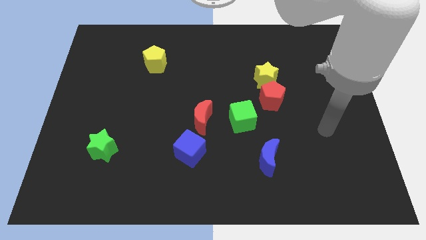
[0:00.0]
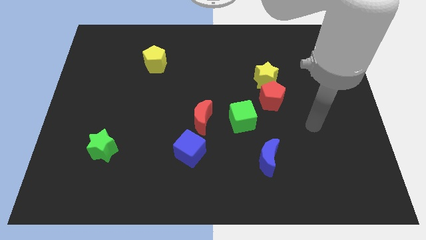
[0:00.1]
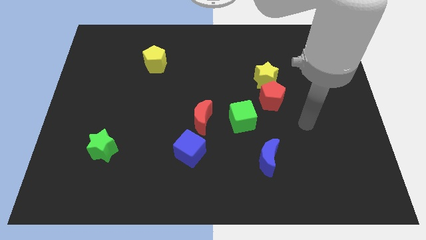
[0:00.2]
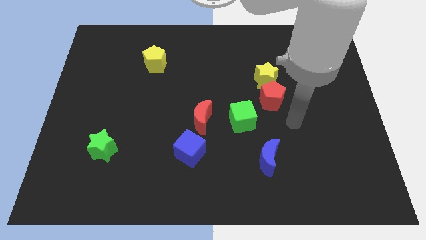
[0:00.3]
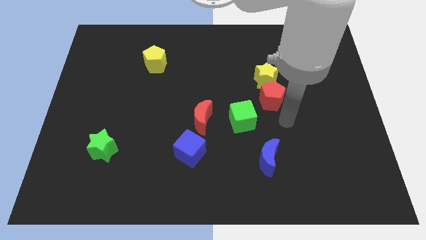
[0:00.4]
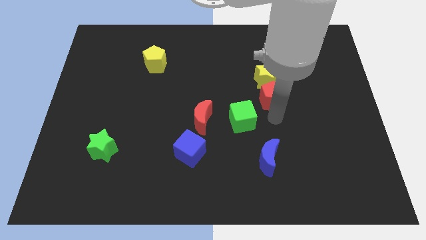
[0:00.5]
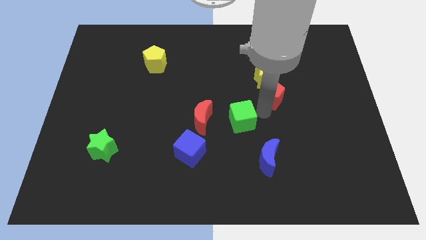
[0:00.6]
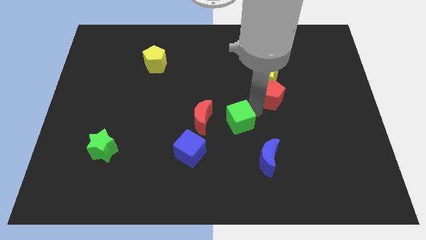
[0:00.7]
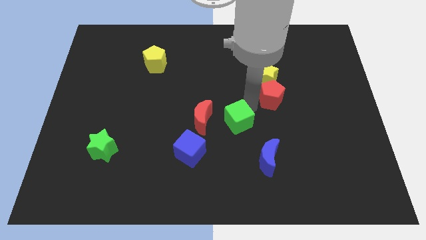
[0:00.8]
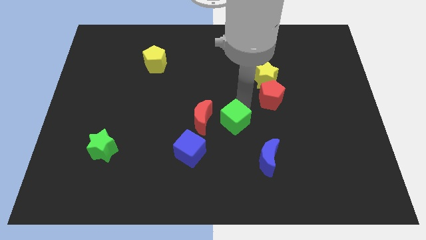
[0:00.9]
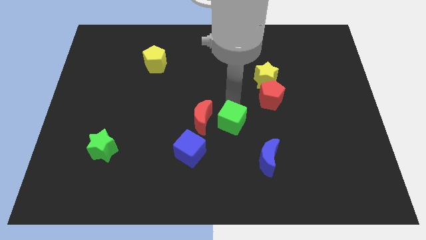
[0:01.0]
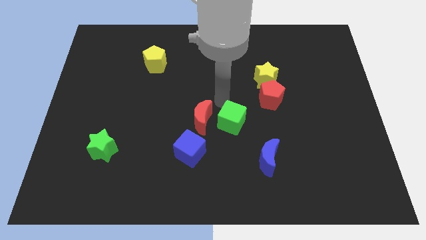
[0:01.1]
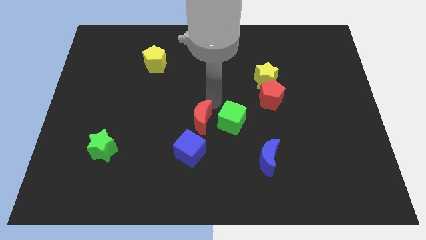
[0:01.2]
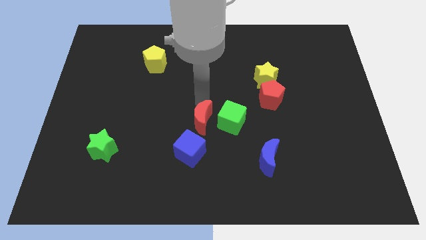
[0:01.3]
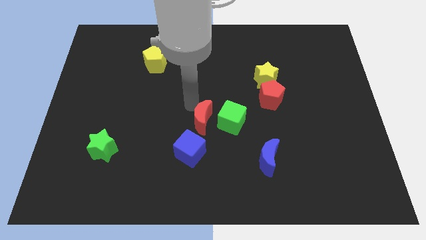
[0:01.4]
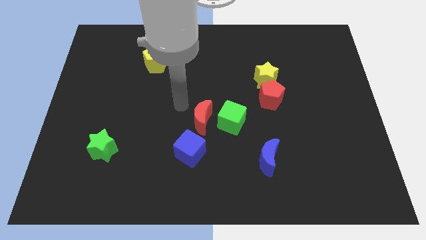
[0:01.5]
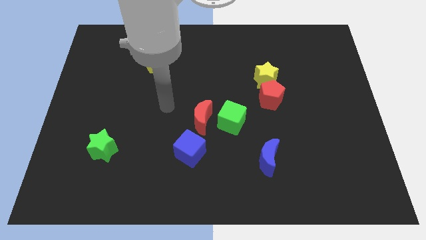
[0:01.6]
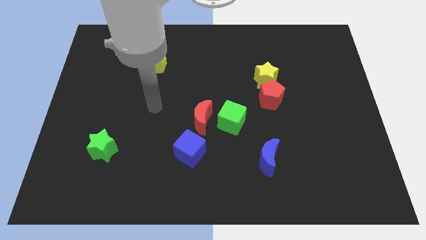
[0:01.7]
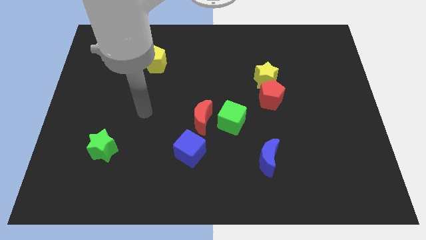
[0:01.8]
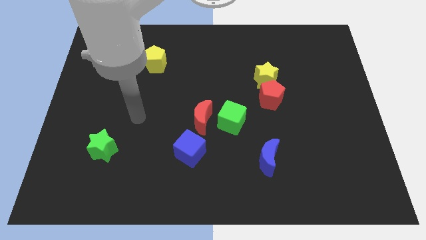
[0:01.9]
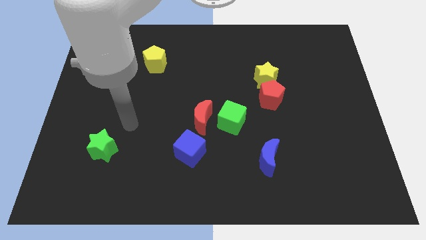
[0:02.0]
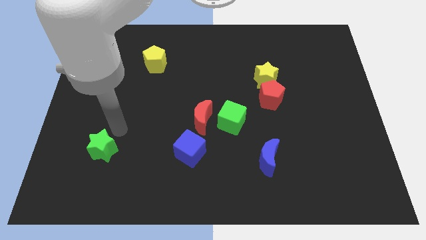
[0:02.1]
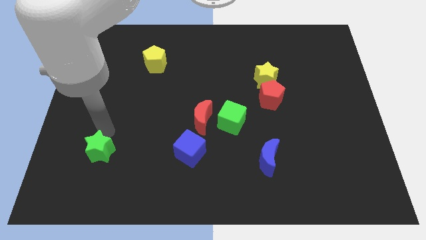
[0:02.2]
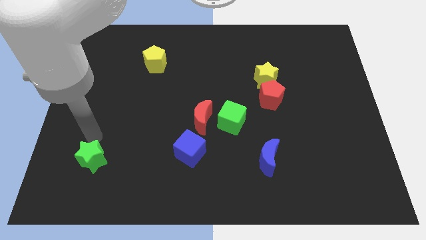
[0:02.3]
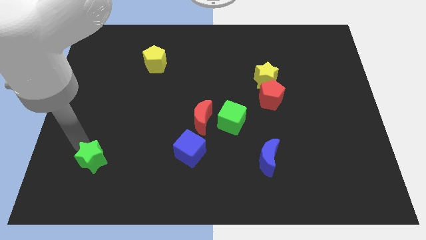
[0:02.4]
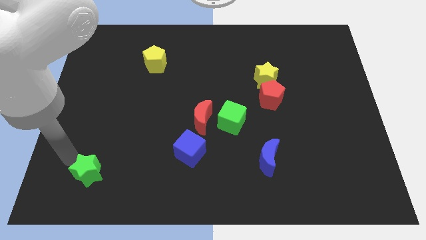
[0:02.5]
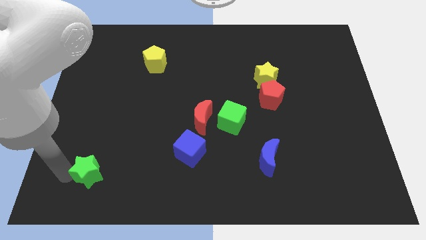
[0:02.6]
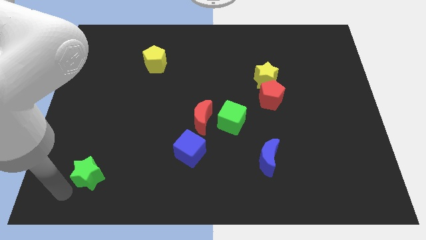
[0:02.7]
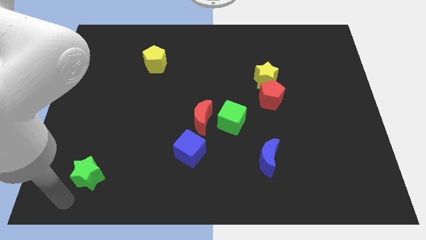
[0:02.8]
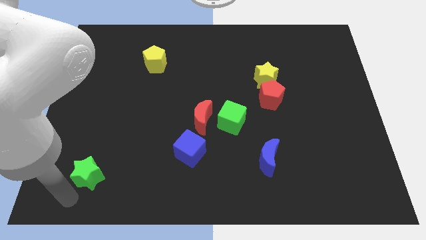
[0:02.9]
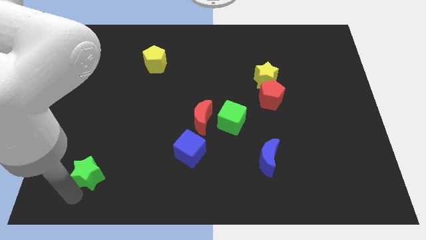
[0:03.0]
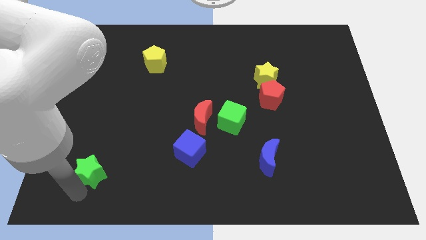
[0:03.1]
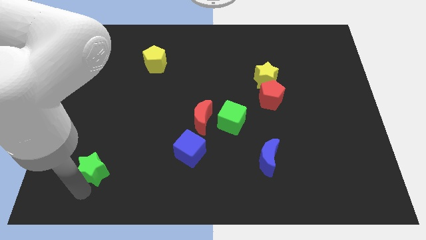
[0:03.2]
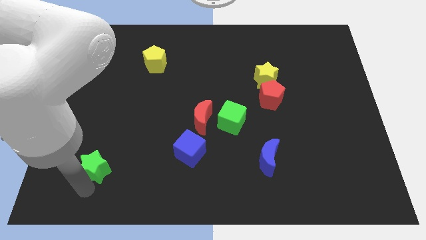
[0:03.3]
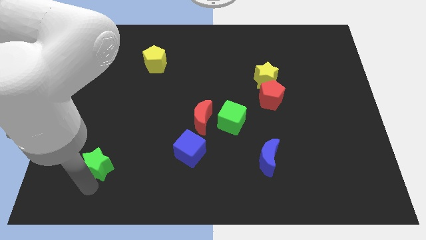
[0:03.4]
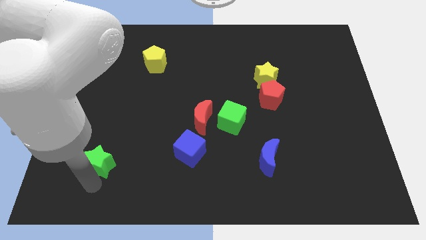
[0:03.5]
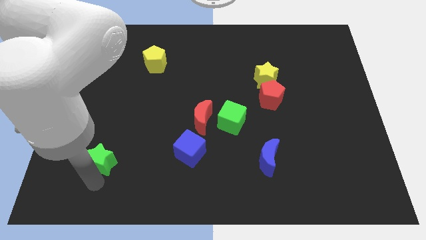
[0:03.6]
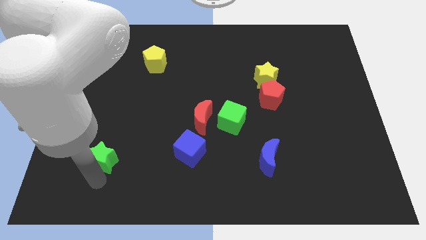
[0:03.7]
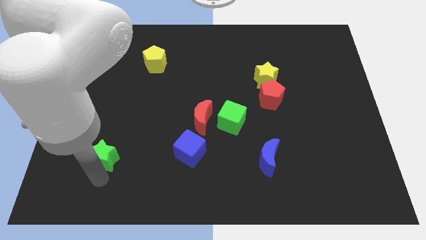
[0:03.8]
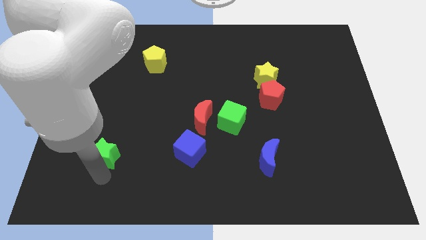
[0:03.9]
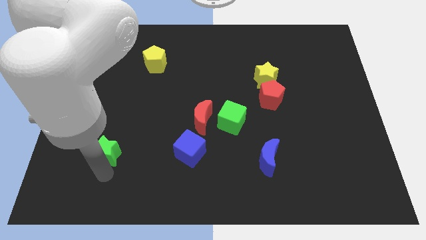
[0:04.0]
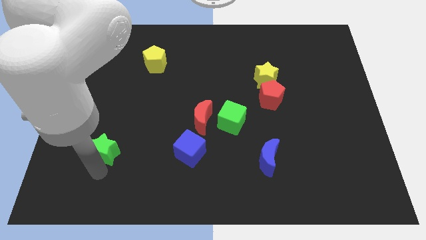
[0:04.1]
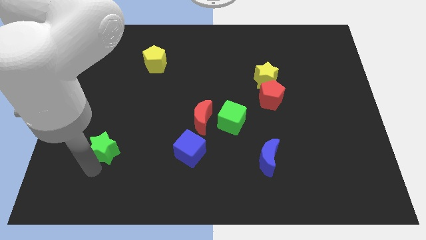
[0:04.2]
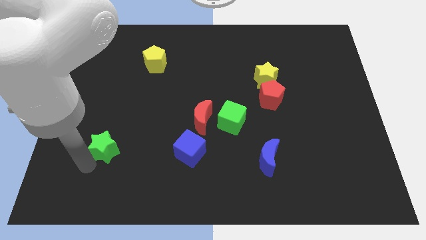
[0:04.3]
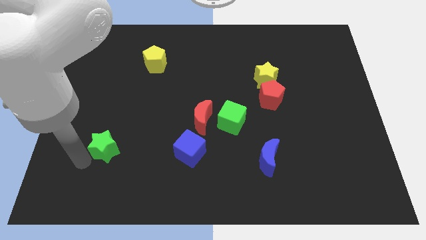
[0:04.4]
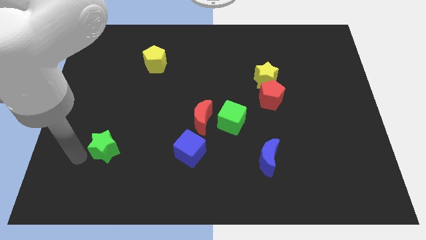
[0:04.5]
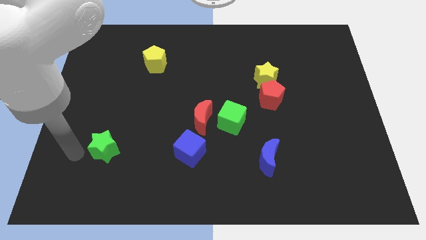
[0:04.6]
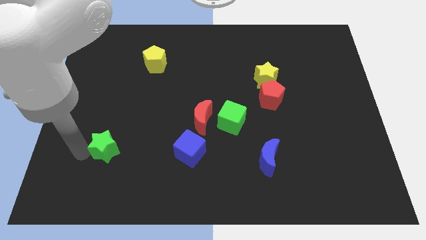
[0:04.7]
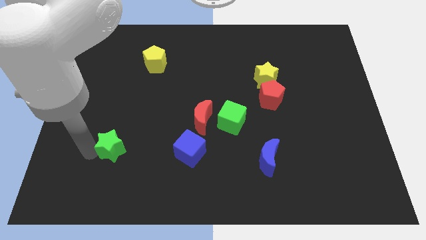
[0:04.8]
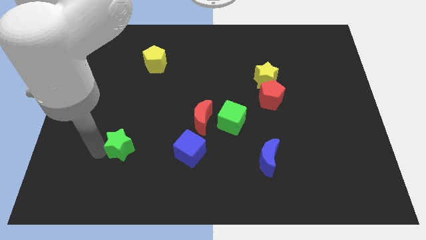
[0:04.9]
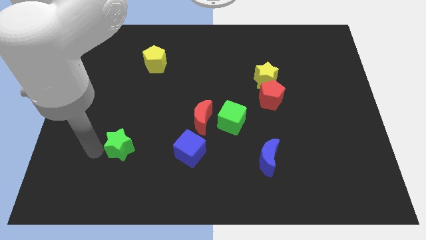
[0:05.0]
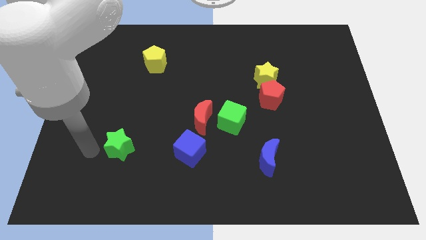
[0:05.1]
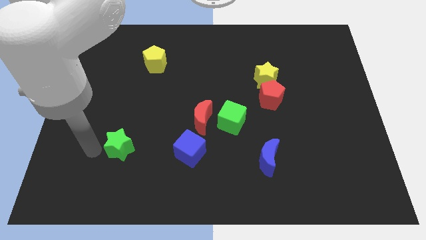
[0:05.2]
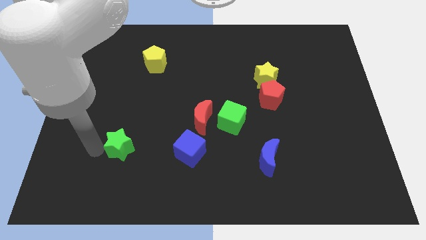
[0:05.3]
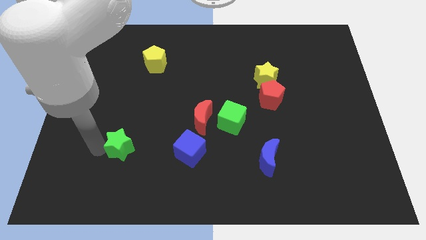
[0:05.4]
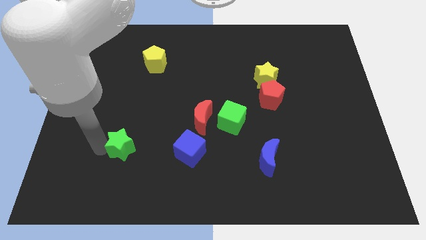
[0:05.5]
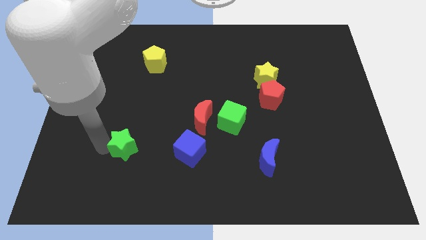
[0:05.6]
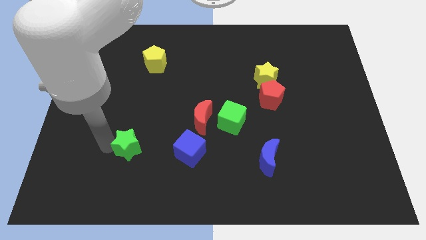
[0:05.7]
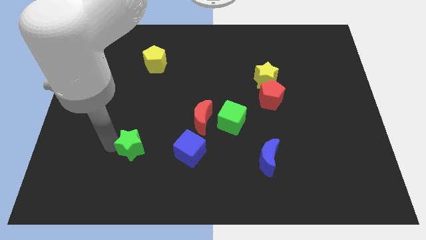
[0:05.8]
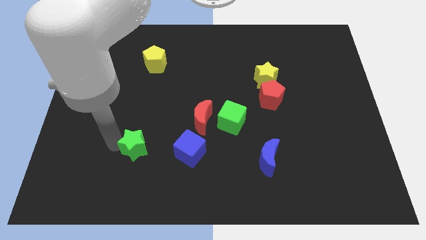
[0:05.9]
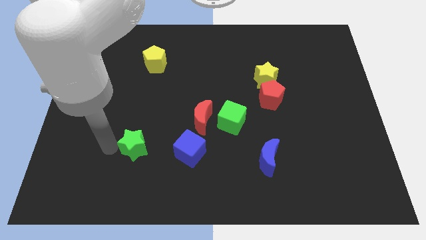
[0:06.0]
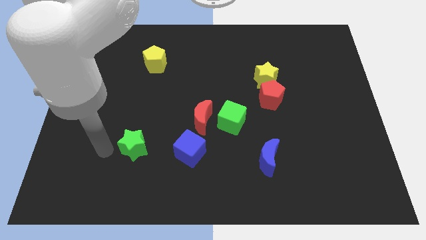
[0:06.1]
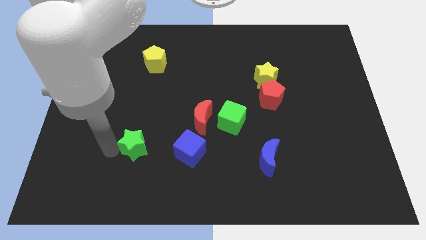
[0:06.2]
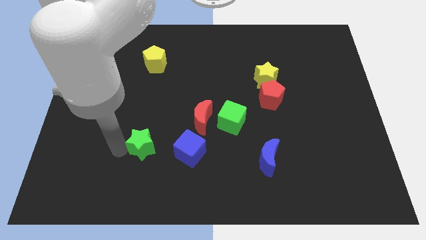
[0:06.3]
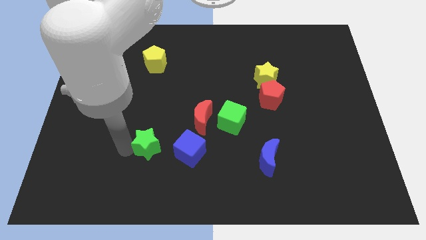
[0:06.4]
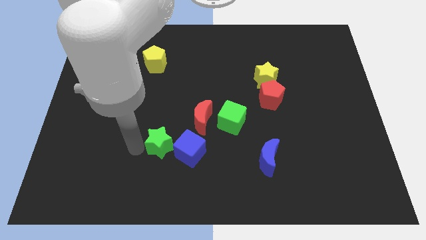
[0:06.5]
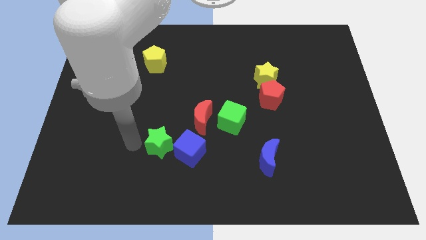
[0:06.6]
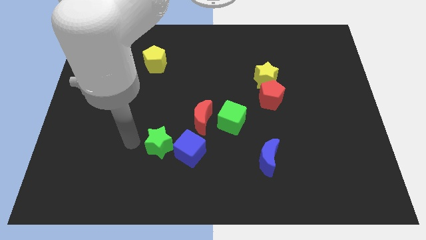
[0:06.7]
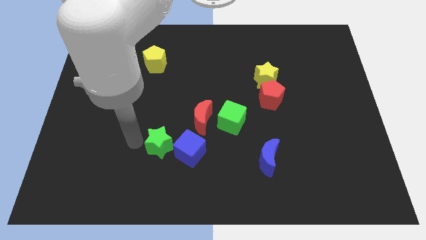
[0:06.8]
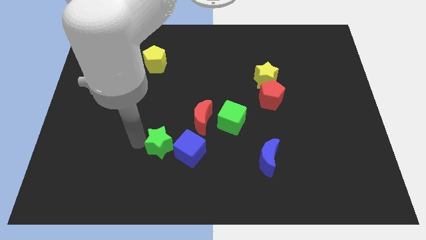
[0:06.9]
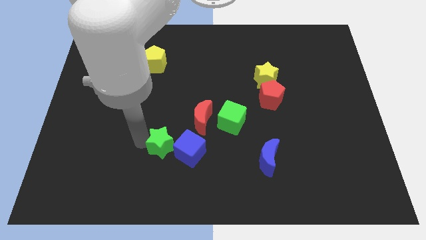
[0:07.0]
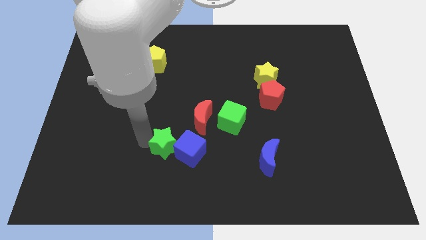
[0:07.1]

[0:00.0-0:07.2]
push the green star towards the blue cube
